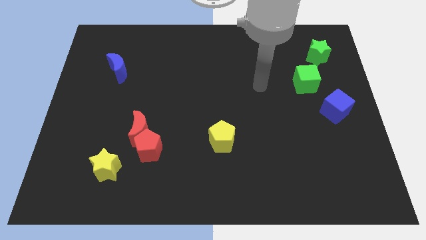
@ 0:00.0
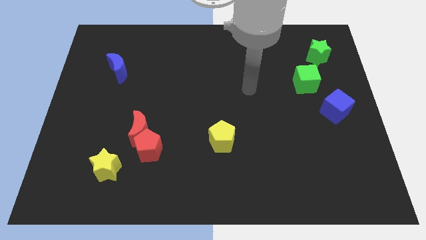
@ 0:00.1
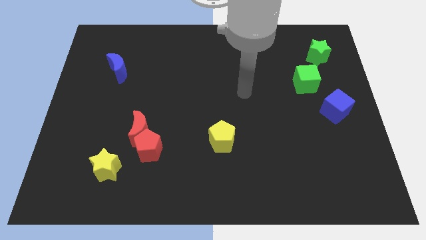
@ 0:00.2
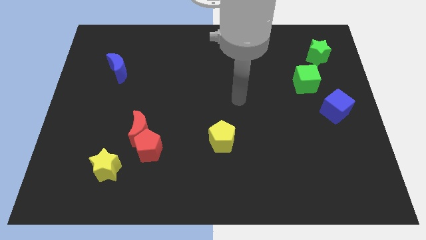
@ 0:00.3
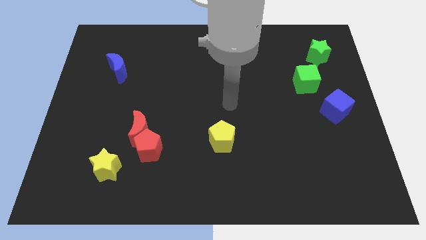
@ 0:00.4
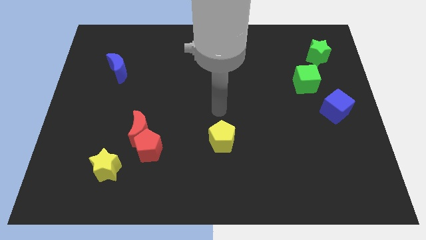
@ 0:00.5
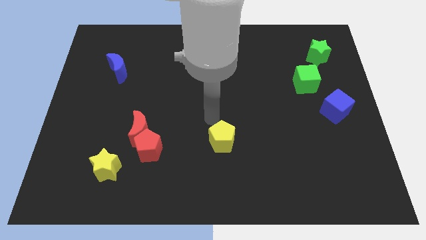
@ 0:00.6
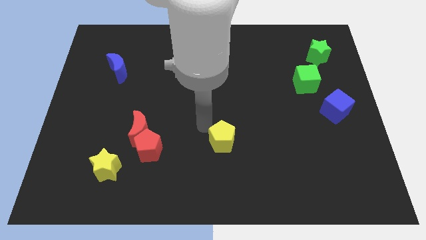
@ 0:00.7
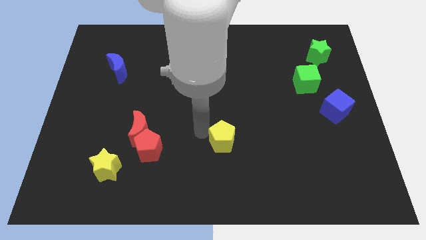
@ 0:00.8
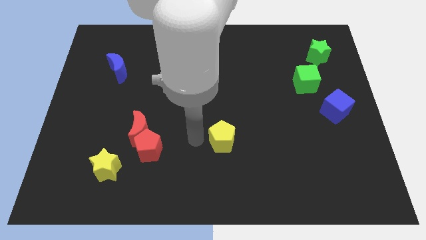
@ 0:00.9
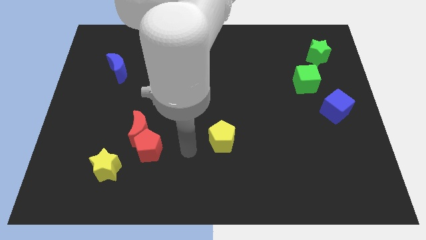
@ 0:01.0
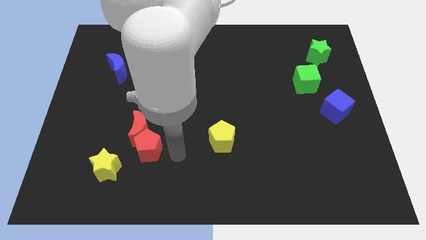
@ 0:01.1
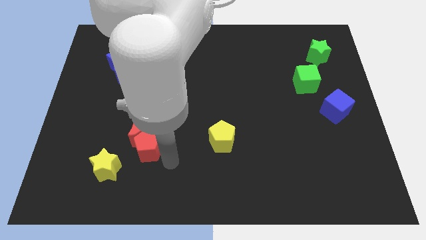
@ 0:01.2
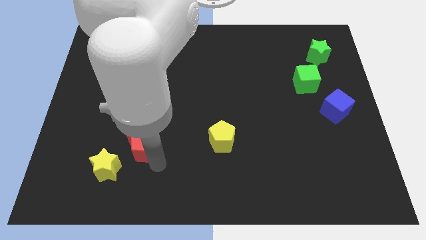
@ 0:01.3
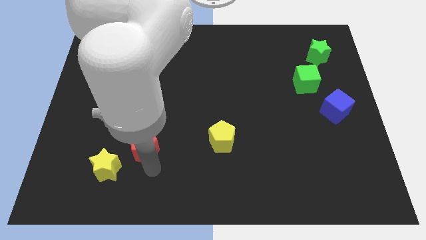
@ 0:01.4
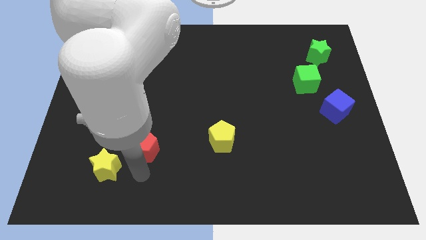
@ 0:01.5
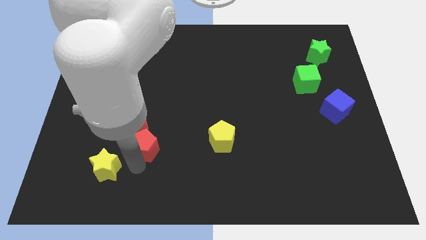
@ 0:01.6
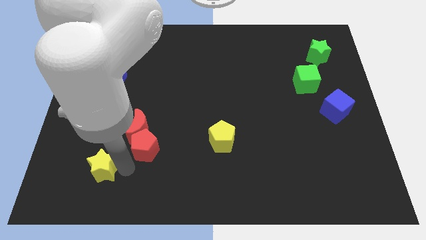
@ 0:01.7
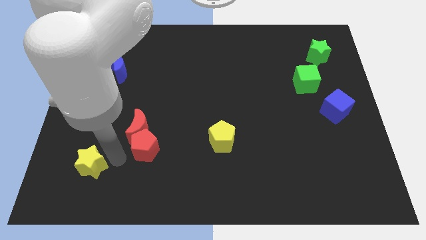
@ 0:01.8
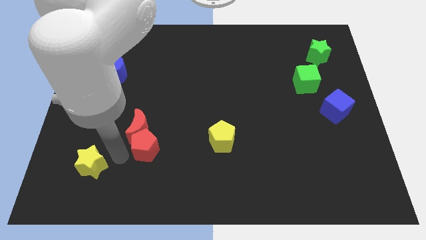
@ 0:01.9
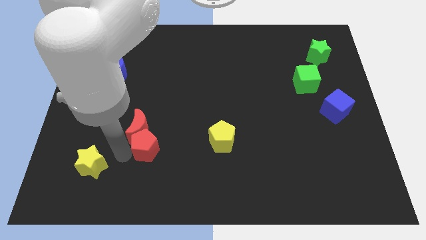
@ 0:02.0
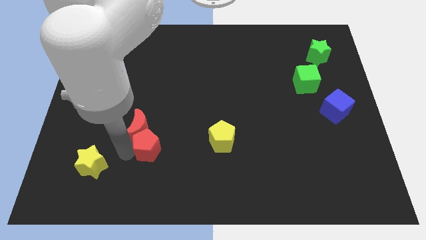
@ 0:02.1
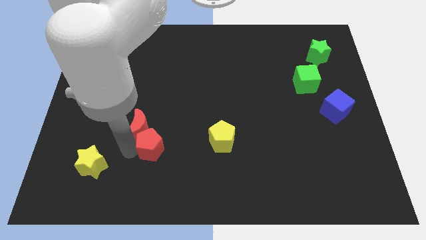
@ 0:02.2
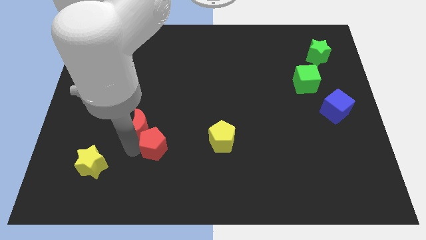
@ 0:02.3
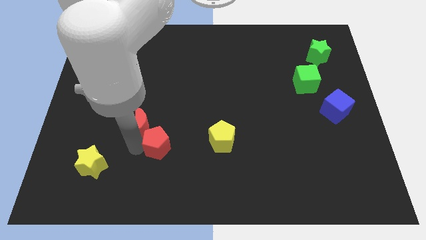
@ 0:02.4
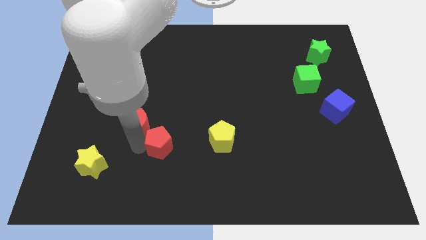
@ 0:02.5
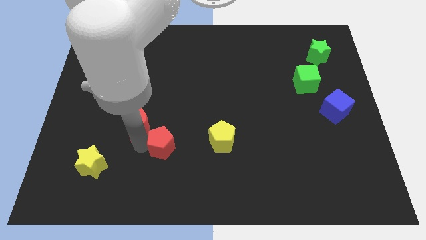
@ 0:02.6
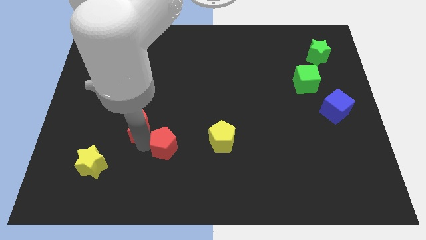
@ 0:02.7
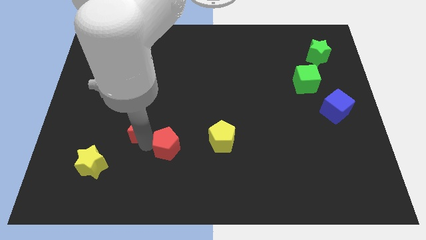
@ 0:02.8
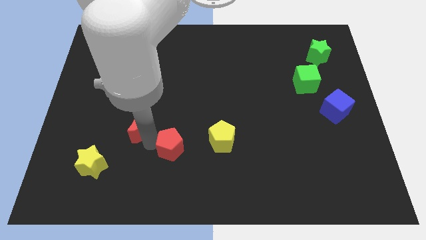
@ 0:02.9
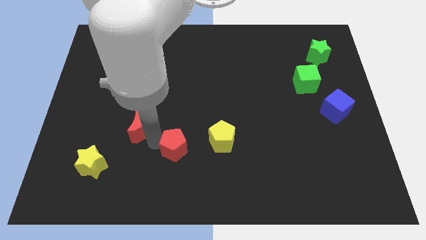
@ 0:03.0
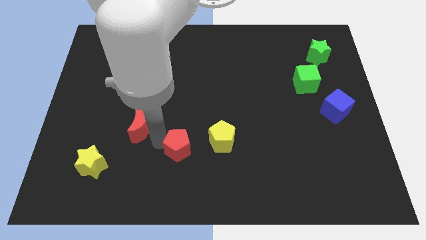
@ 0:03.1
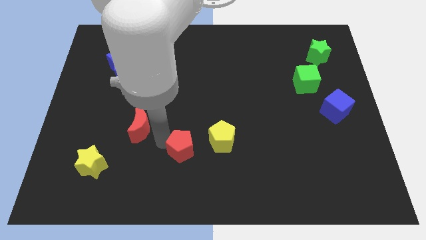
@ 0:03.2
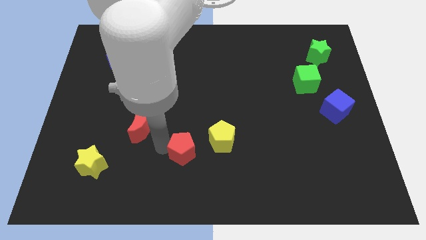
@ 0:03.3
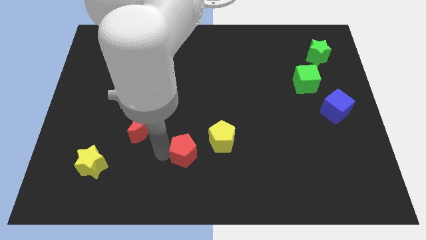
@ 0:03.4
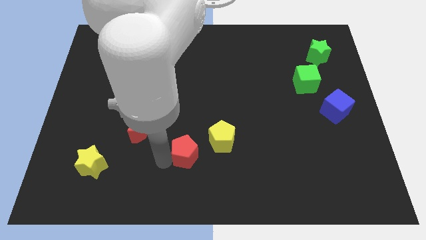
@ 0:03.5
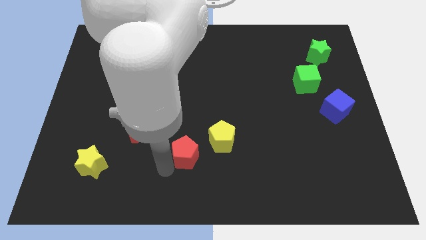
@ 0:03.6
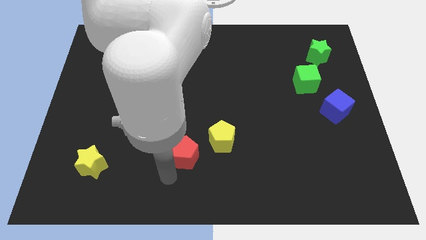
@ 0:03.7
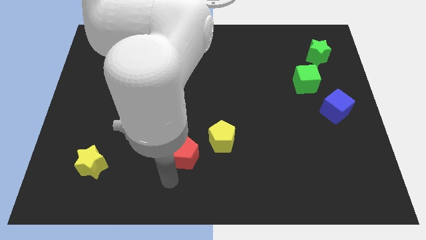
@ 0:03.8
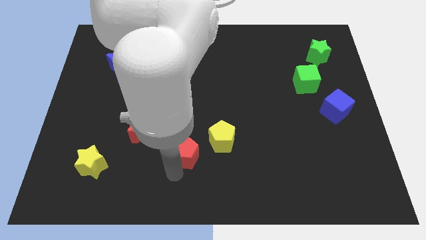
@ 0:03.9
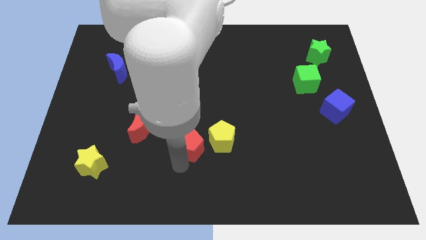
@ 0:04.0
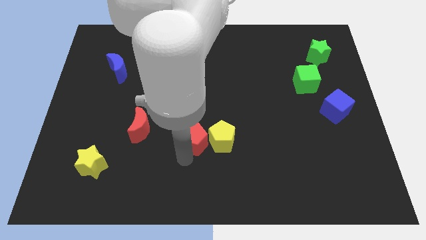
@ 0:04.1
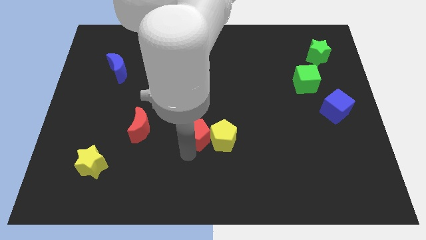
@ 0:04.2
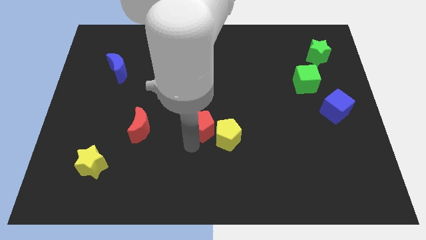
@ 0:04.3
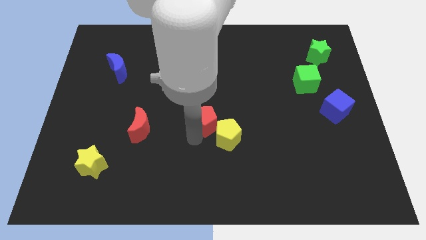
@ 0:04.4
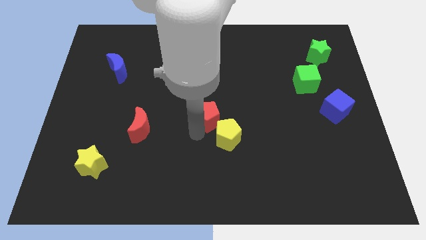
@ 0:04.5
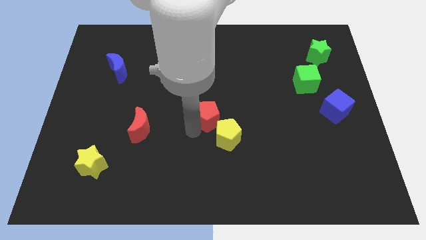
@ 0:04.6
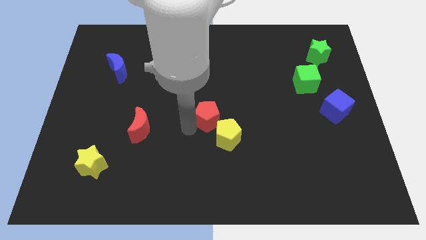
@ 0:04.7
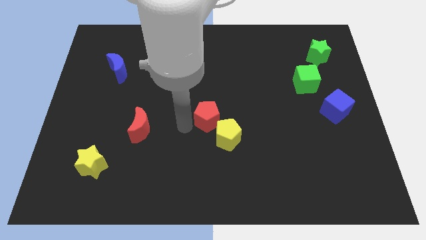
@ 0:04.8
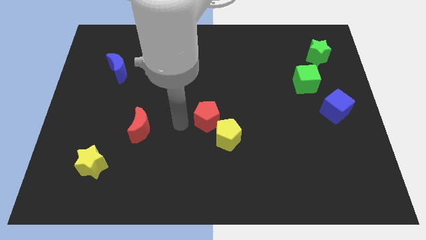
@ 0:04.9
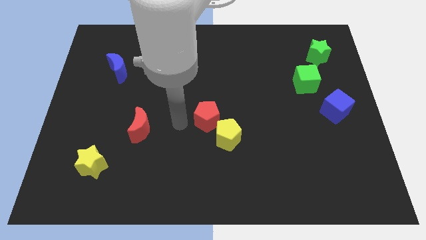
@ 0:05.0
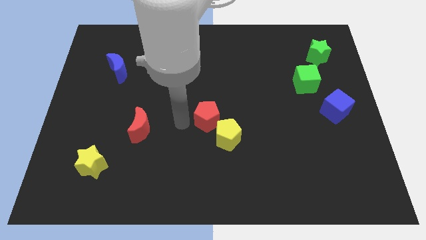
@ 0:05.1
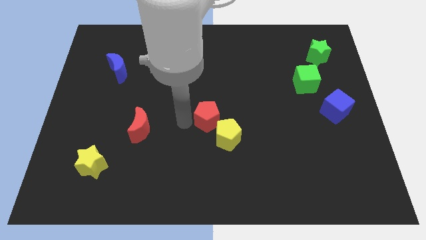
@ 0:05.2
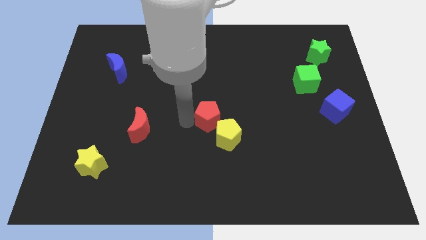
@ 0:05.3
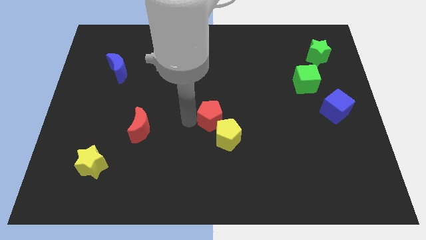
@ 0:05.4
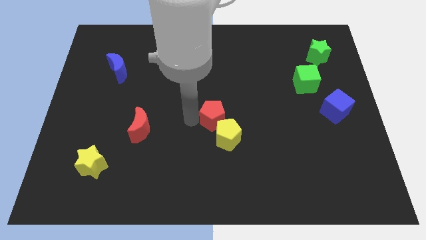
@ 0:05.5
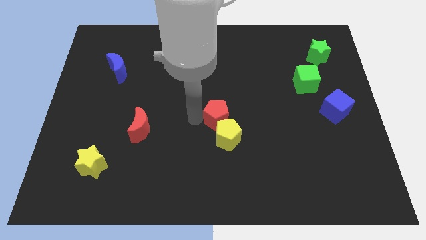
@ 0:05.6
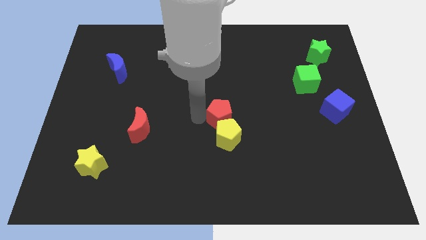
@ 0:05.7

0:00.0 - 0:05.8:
move the red pentagon to the top right side of the yellow pentagon
